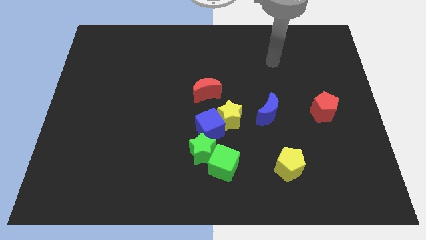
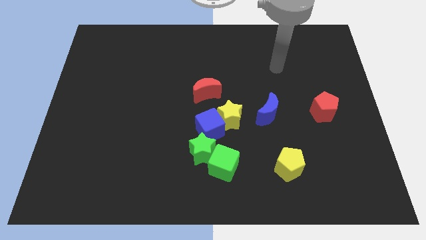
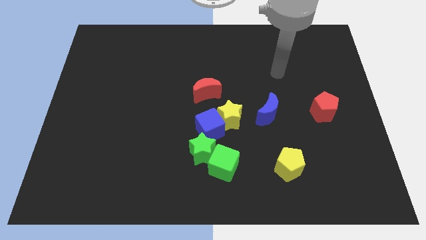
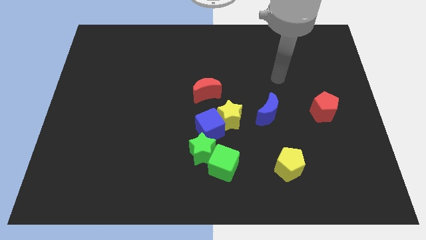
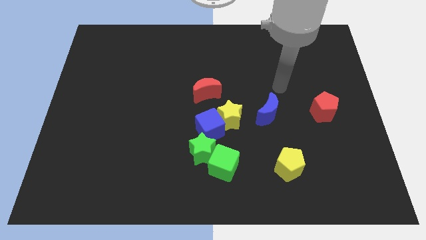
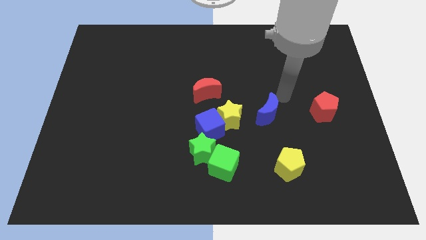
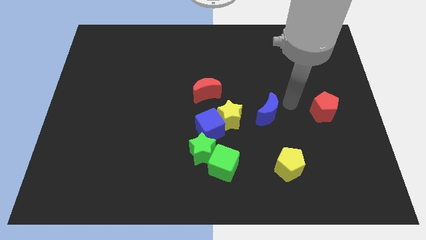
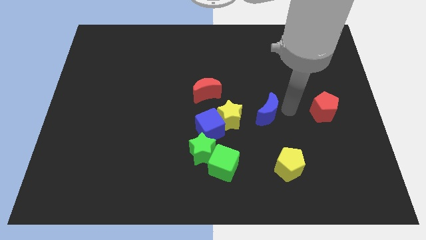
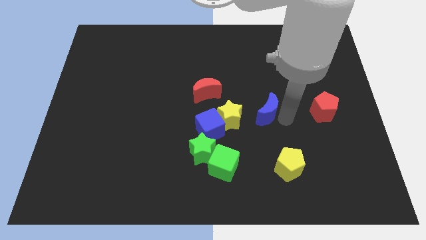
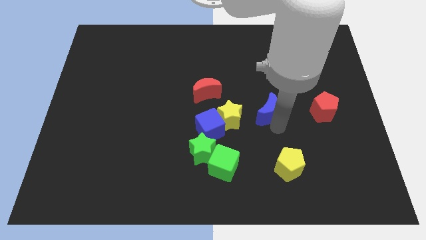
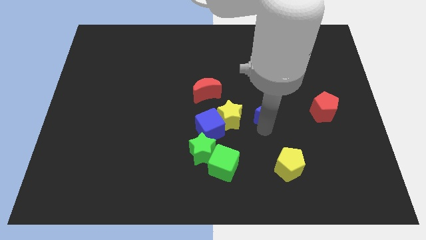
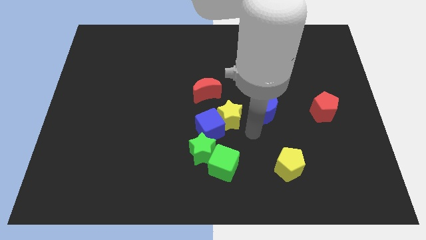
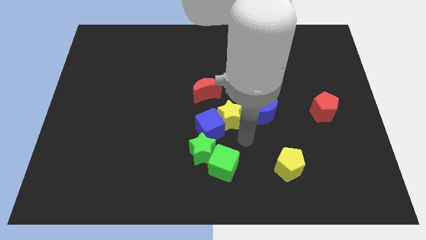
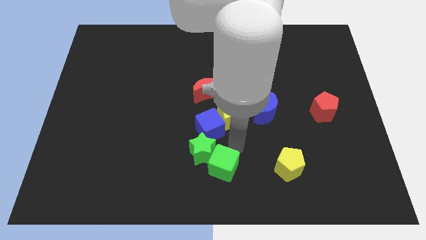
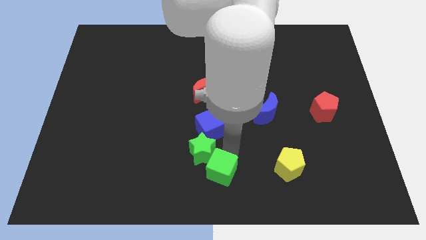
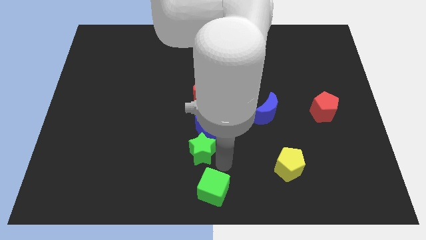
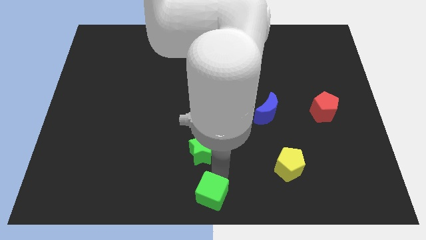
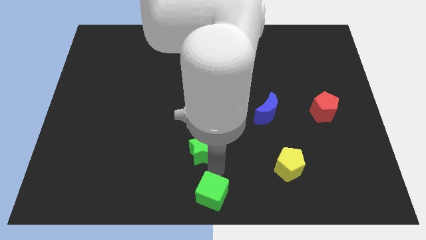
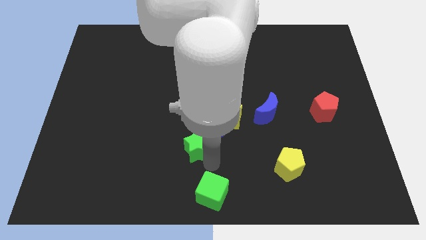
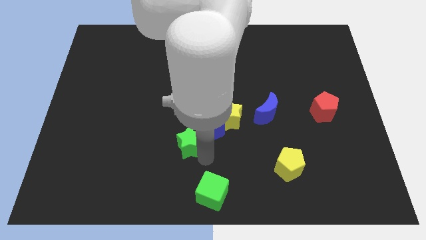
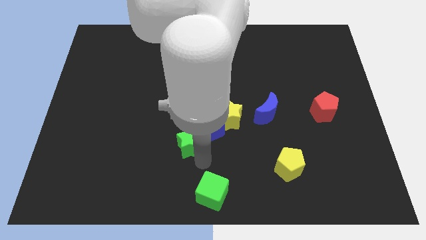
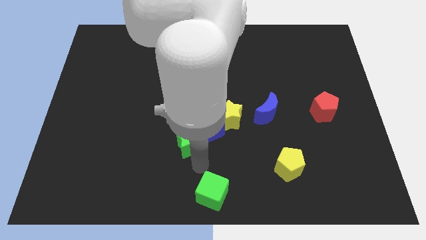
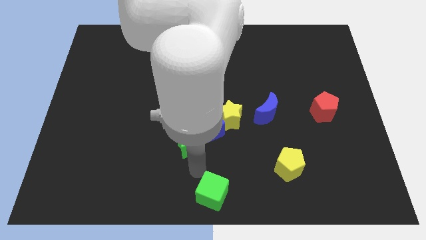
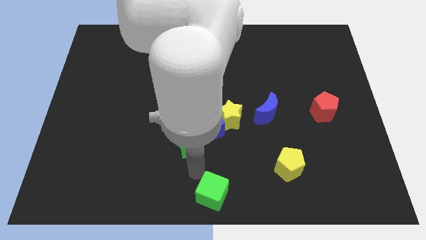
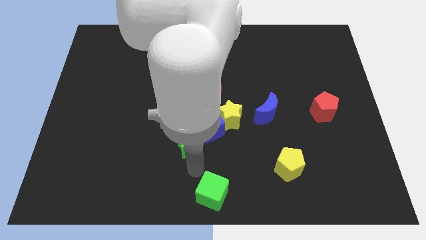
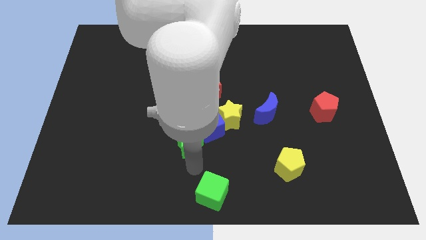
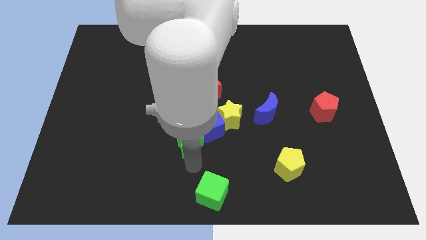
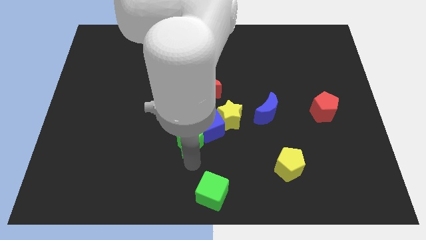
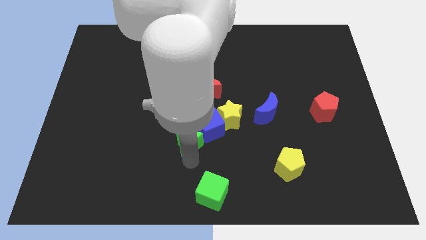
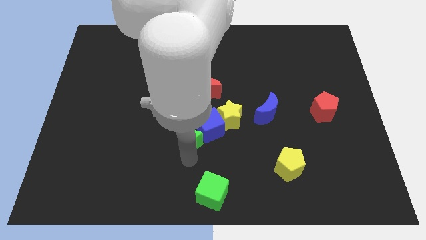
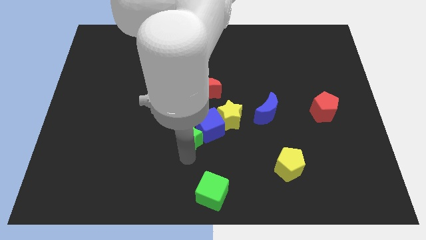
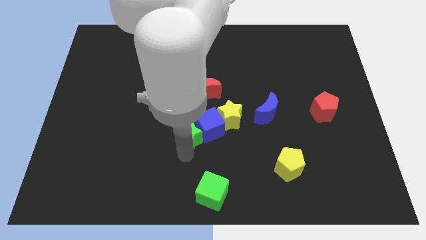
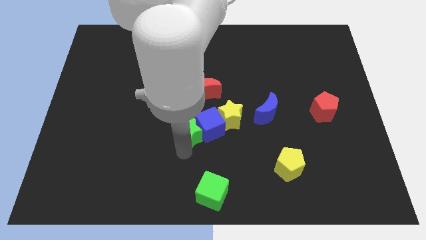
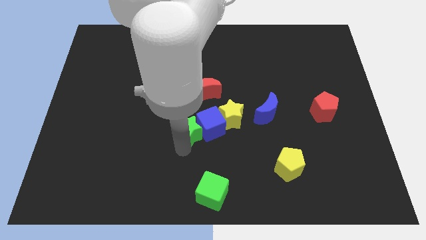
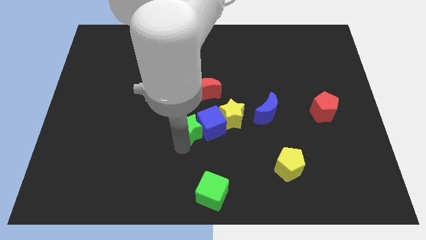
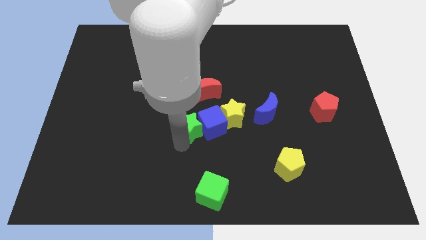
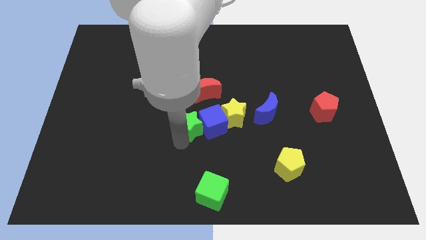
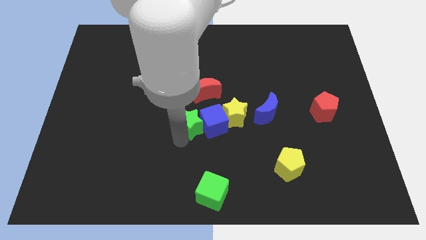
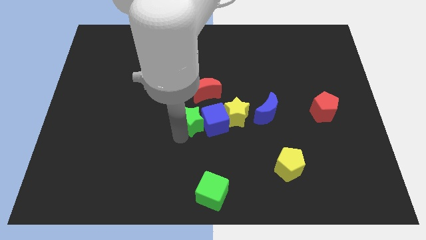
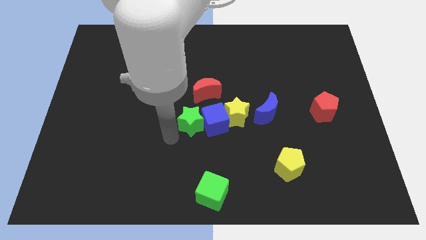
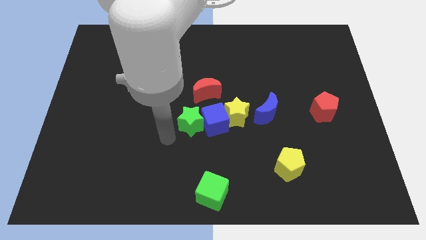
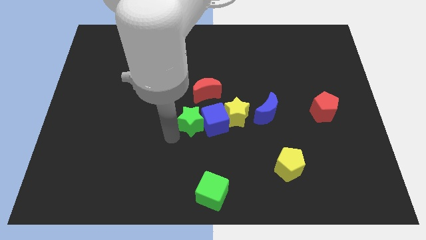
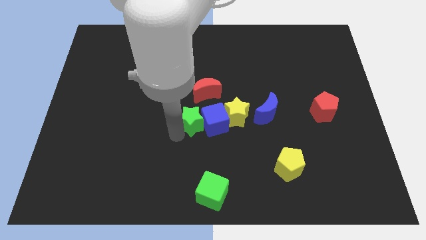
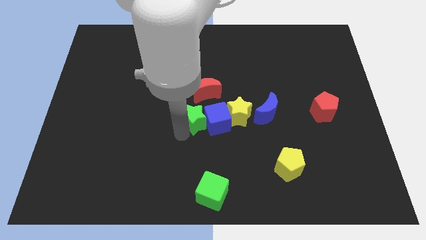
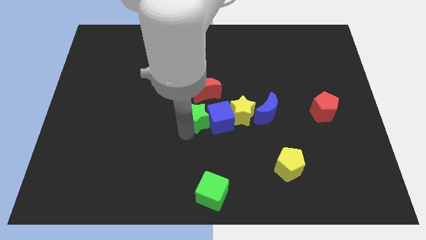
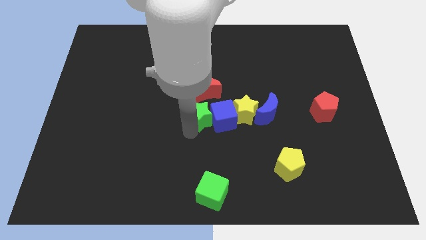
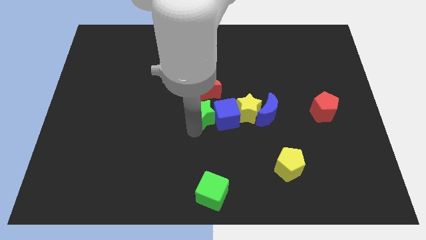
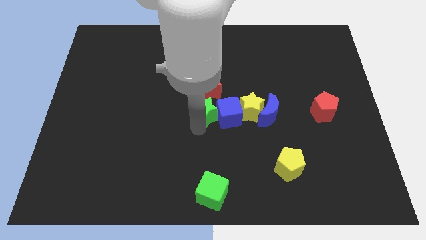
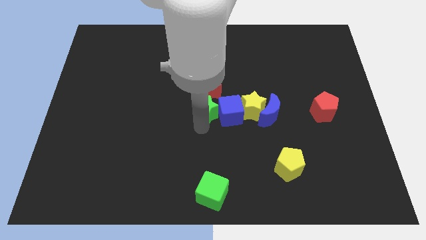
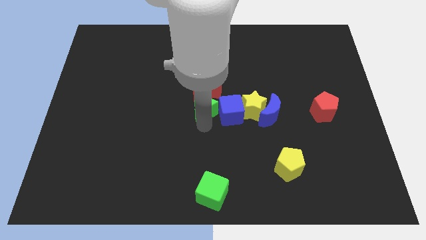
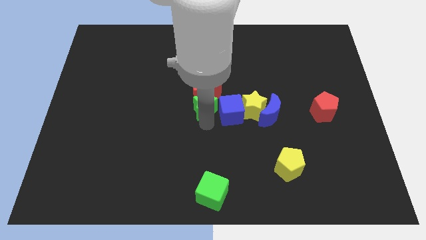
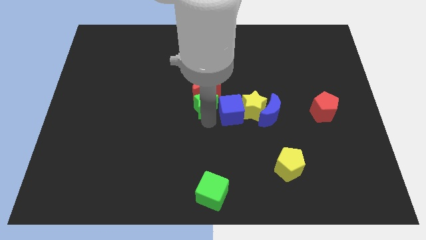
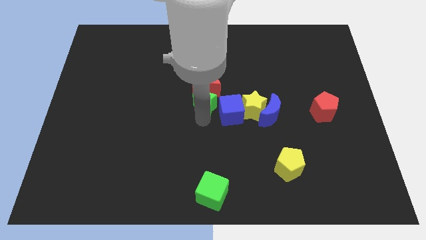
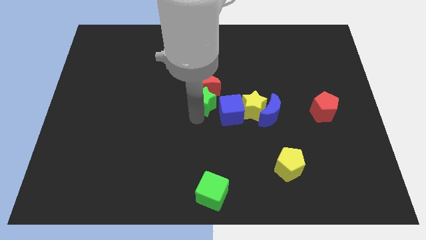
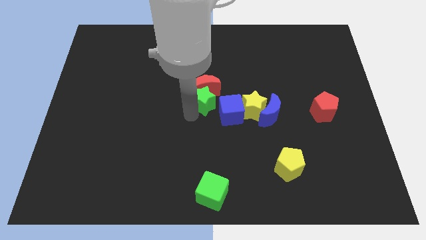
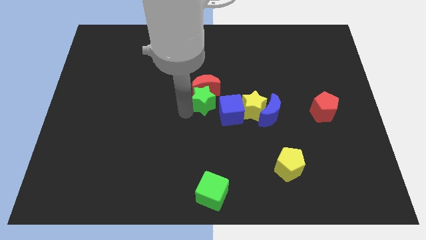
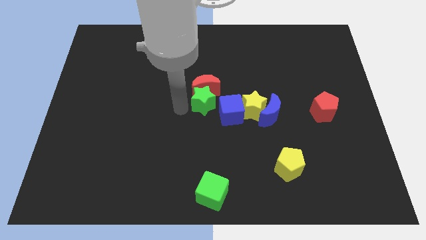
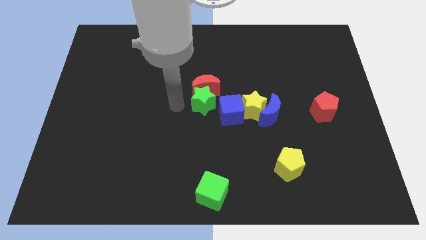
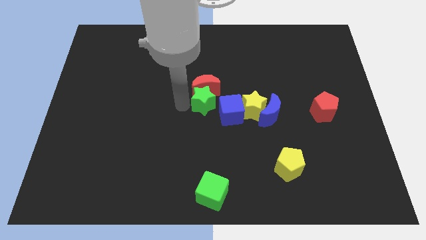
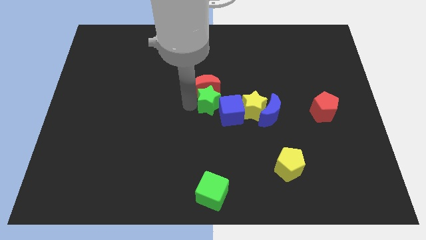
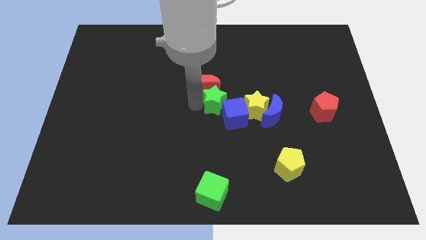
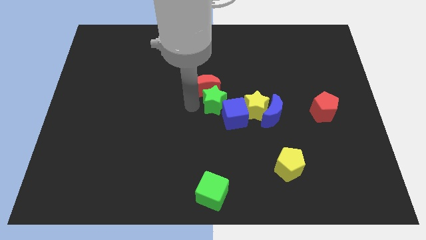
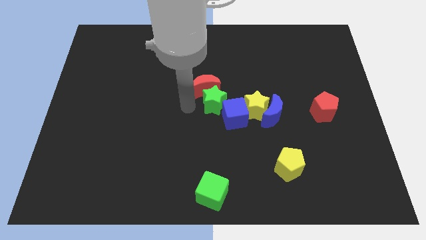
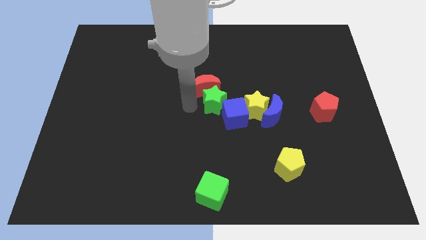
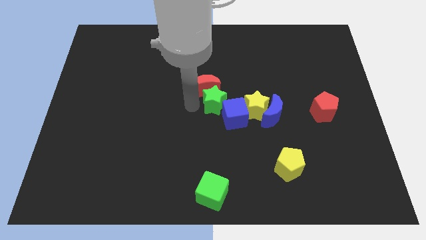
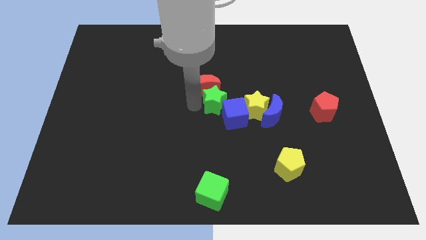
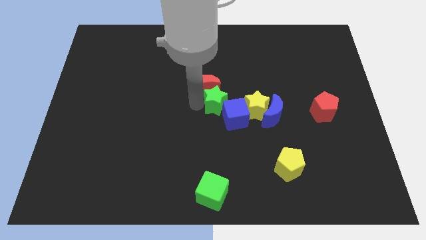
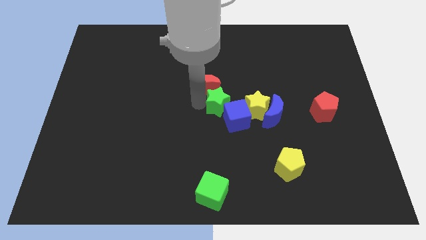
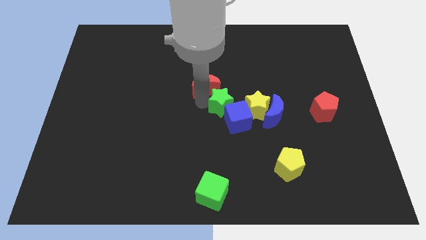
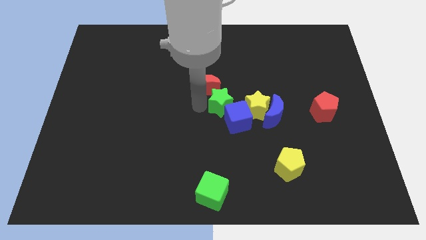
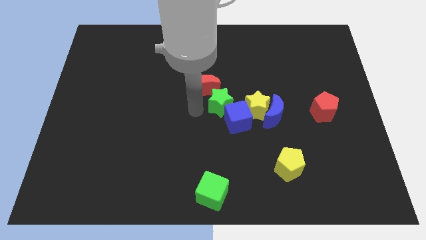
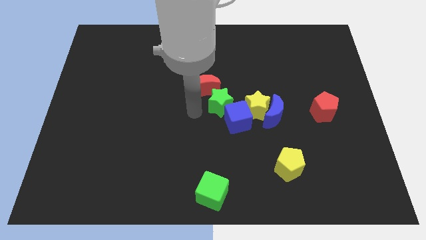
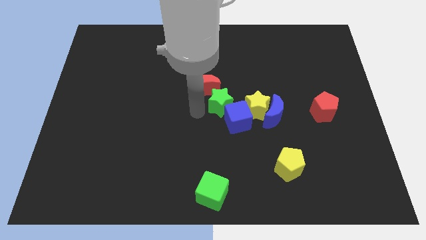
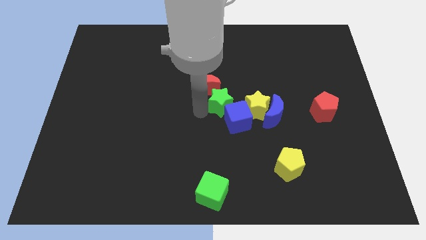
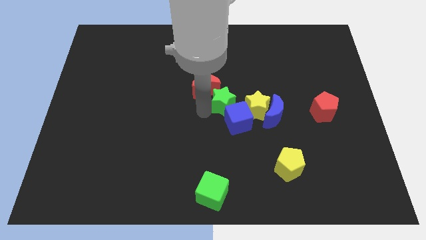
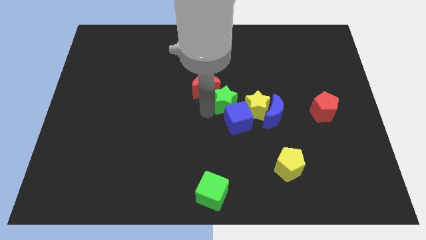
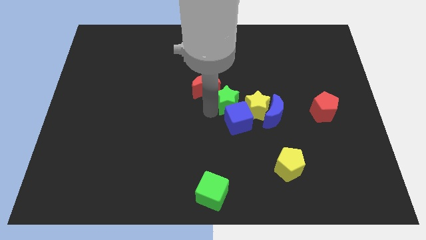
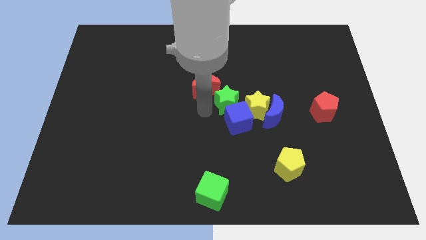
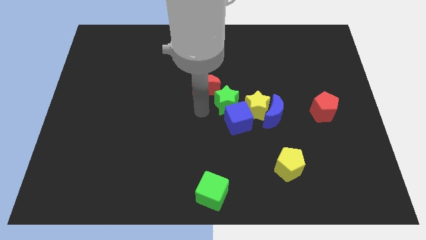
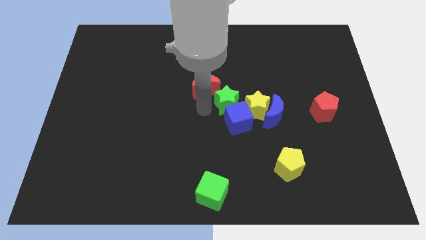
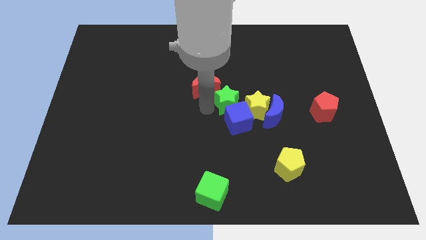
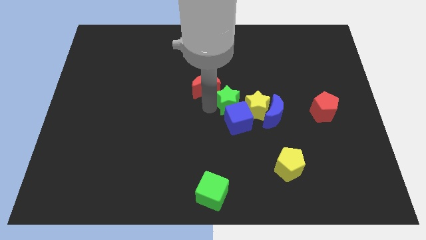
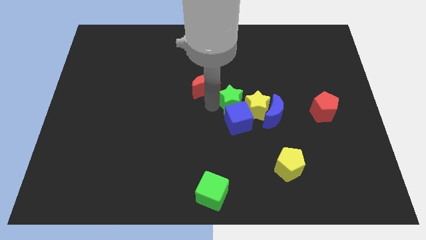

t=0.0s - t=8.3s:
put the green star diagonally up and to the left of the blue moon
